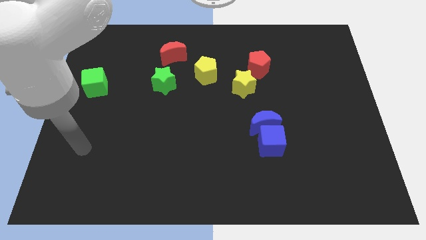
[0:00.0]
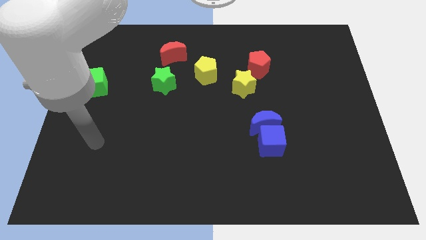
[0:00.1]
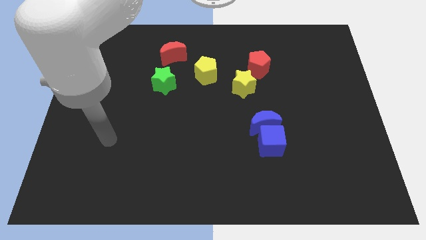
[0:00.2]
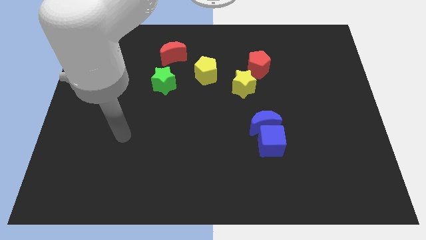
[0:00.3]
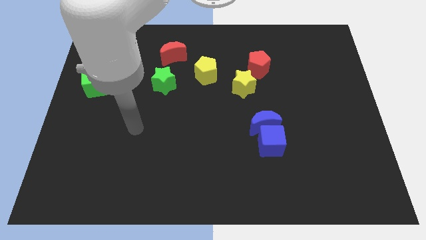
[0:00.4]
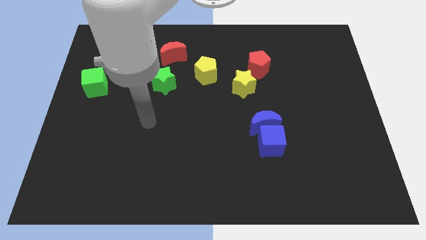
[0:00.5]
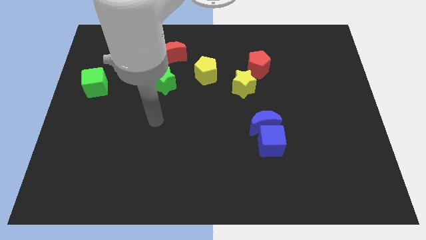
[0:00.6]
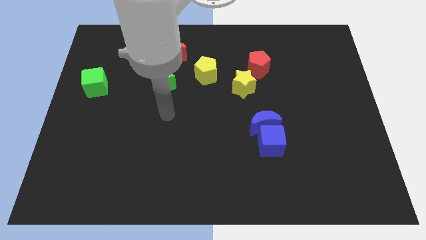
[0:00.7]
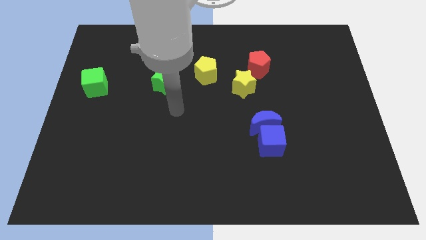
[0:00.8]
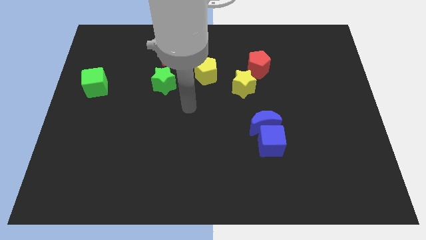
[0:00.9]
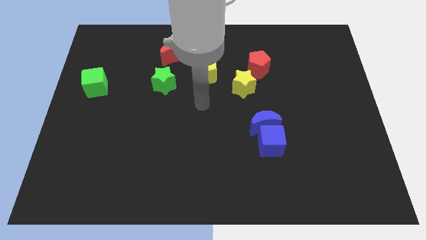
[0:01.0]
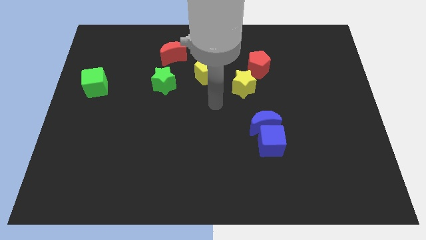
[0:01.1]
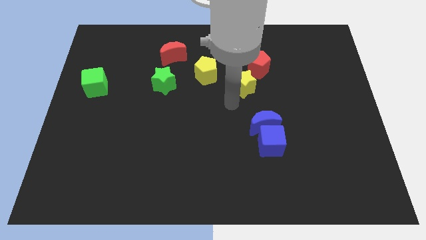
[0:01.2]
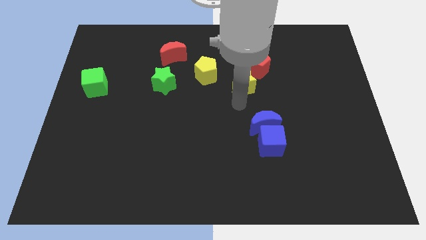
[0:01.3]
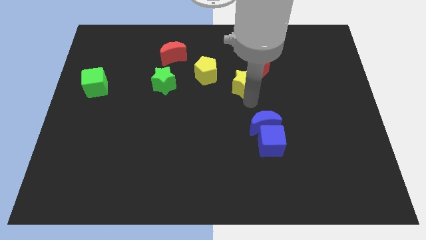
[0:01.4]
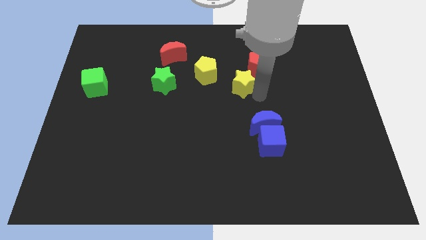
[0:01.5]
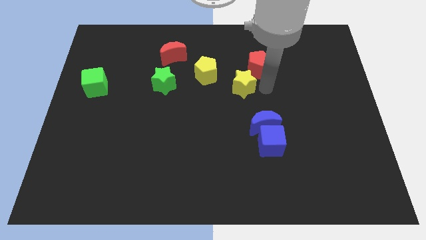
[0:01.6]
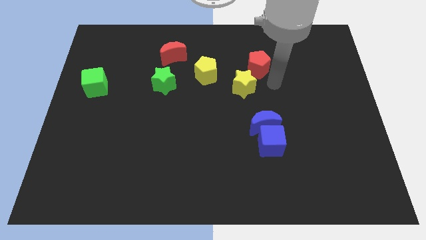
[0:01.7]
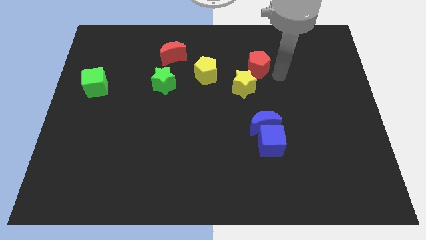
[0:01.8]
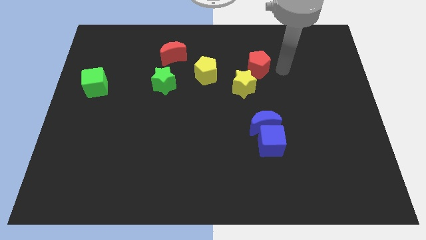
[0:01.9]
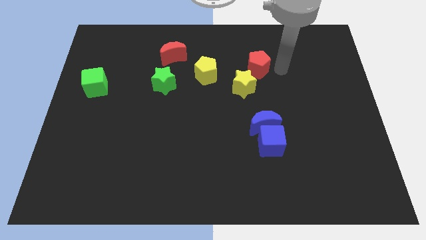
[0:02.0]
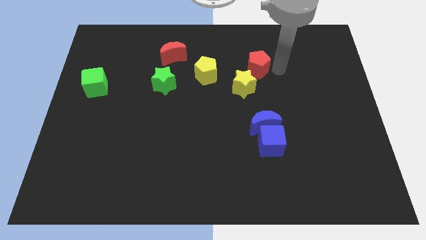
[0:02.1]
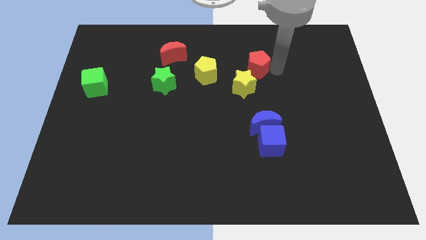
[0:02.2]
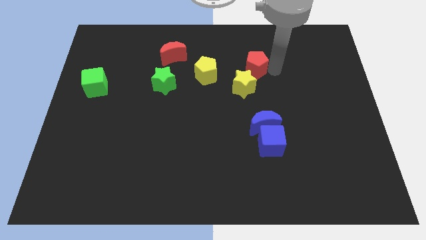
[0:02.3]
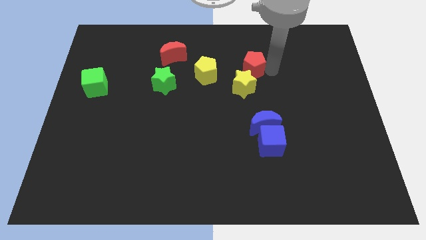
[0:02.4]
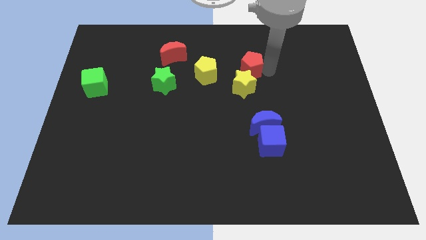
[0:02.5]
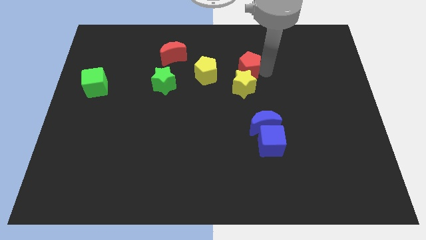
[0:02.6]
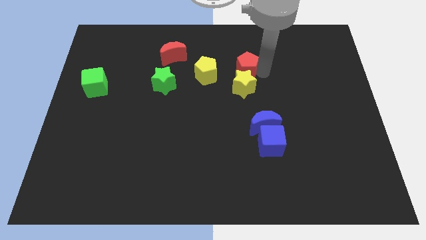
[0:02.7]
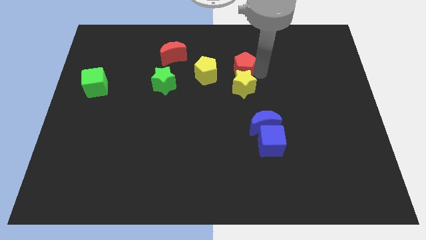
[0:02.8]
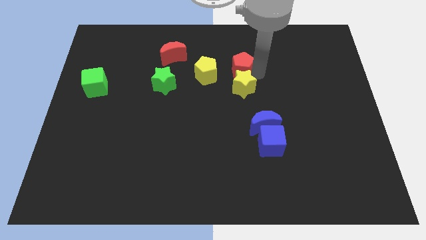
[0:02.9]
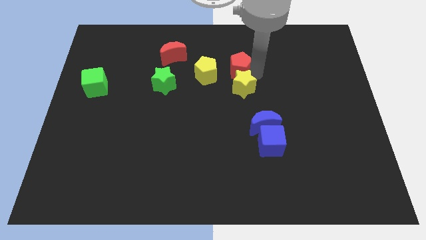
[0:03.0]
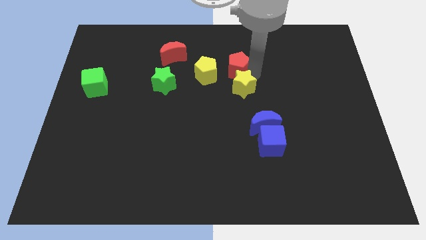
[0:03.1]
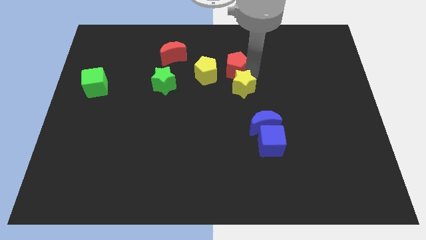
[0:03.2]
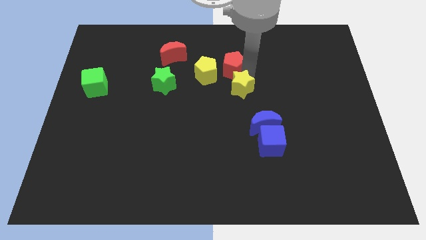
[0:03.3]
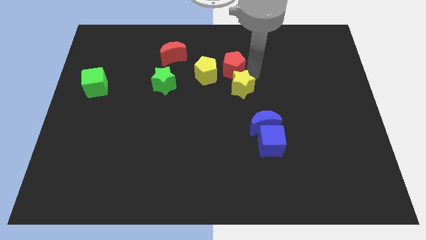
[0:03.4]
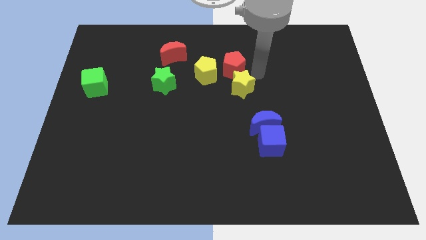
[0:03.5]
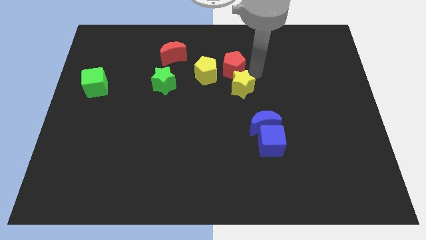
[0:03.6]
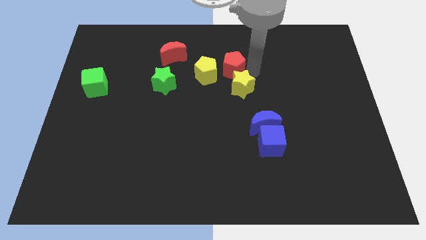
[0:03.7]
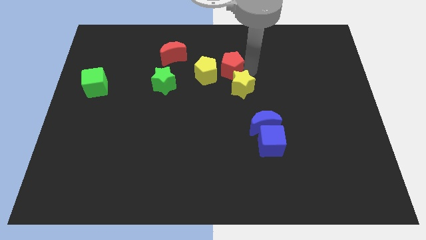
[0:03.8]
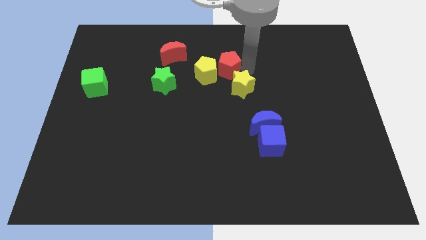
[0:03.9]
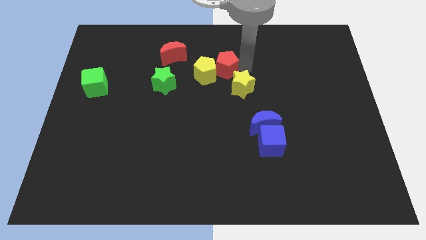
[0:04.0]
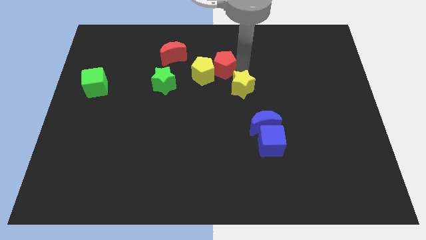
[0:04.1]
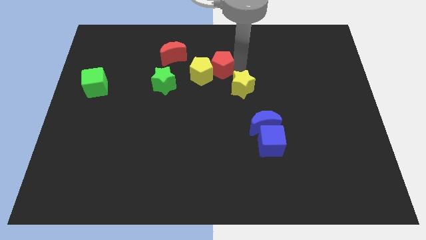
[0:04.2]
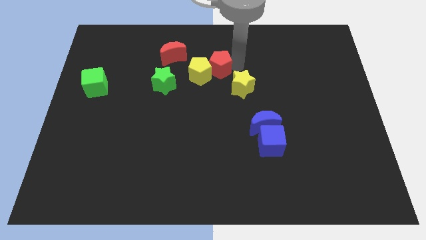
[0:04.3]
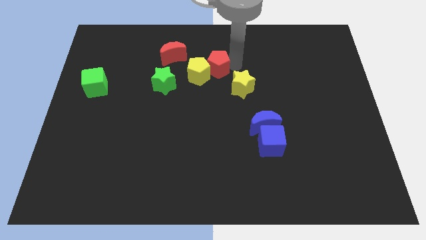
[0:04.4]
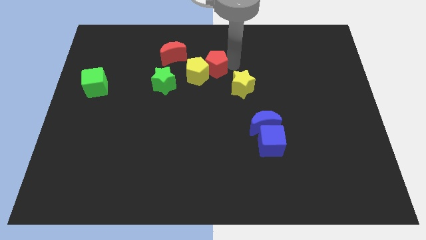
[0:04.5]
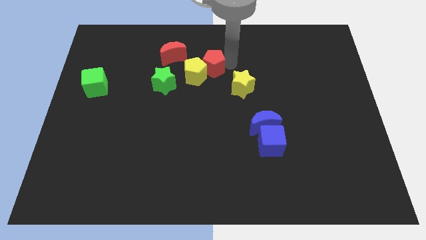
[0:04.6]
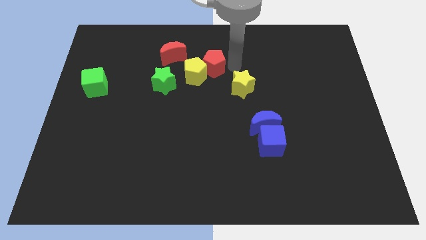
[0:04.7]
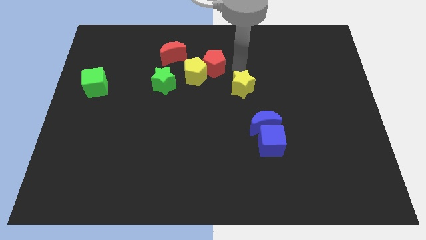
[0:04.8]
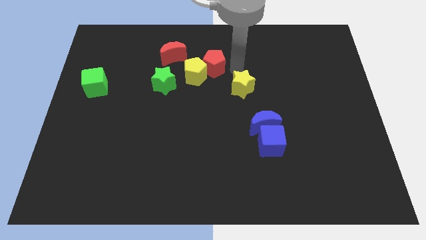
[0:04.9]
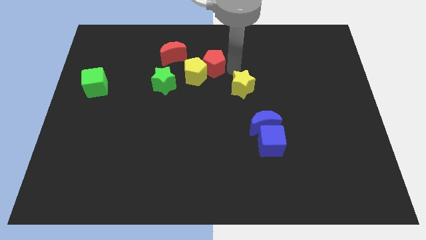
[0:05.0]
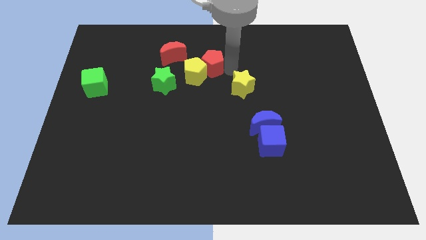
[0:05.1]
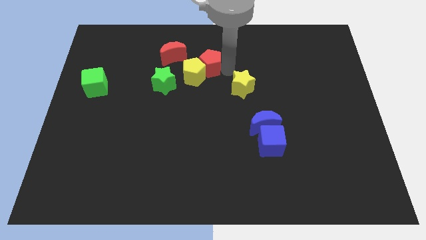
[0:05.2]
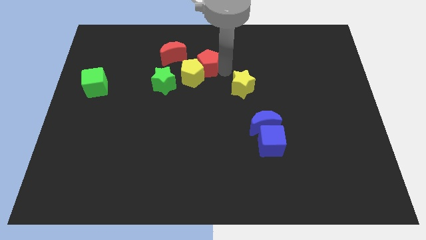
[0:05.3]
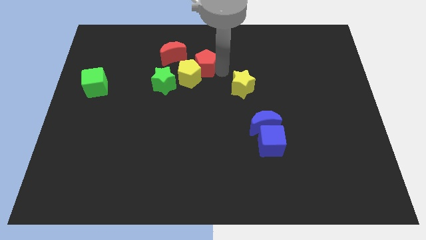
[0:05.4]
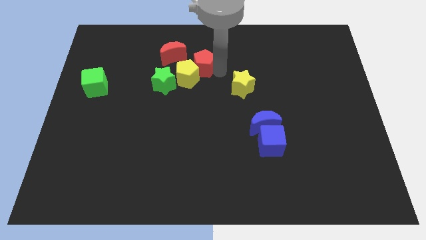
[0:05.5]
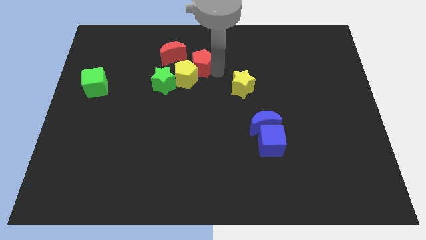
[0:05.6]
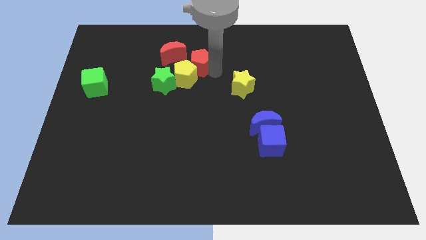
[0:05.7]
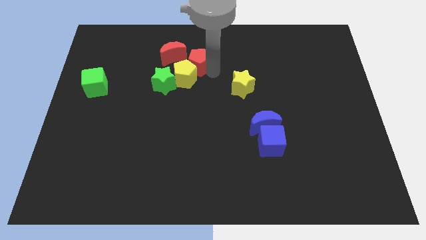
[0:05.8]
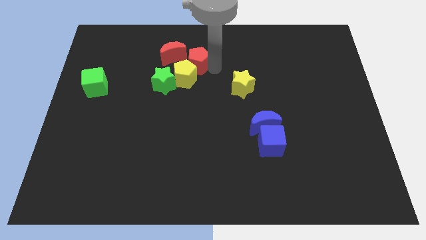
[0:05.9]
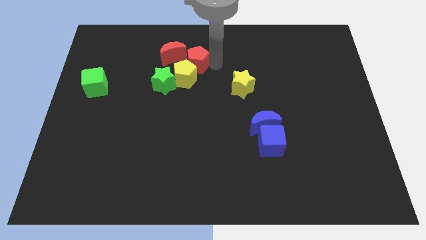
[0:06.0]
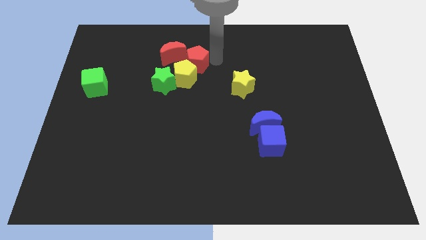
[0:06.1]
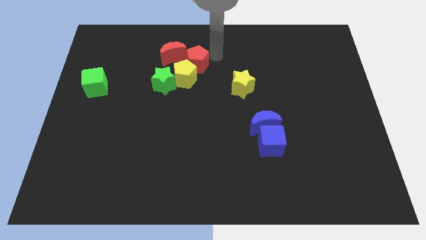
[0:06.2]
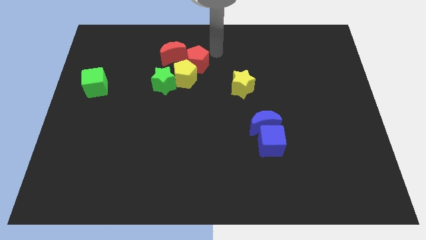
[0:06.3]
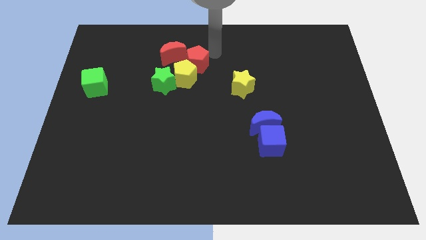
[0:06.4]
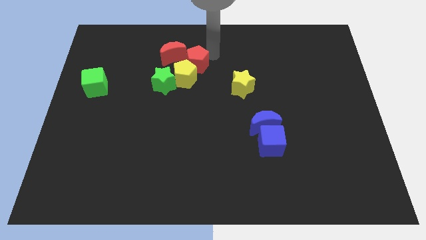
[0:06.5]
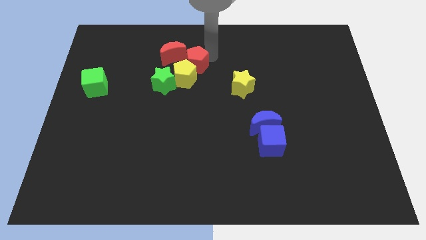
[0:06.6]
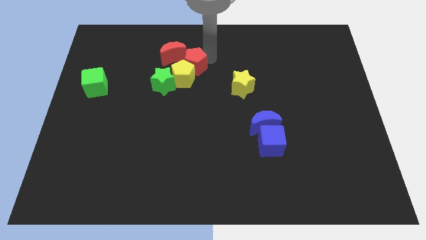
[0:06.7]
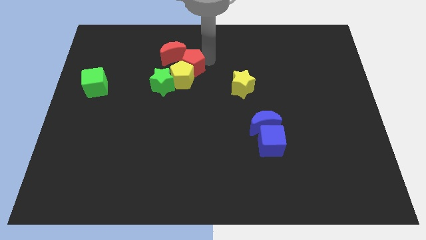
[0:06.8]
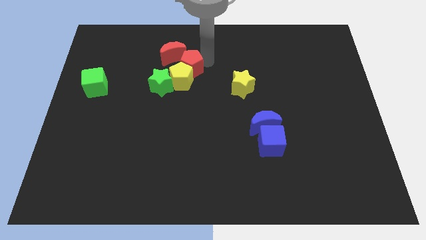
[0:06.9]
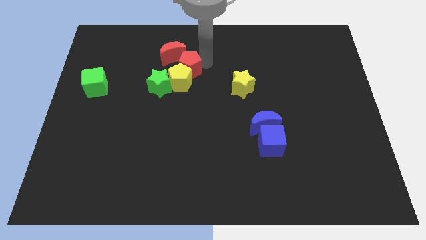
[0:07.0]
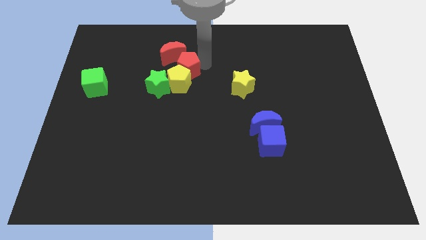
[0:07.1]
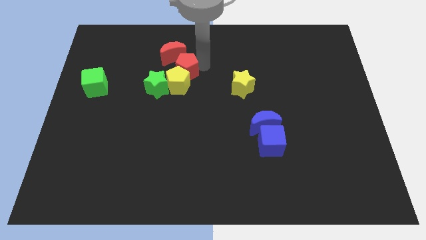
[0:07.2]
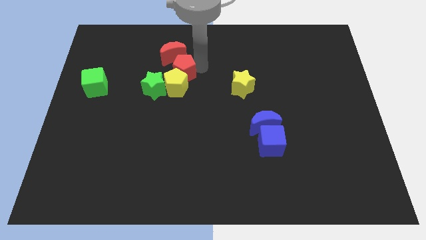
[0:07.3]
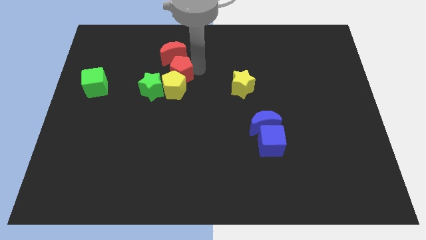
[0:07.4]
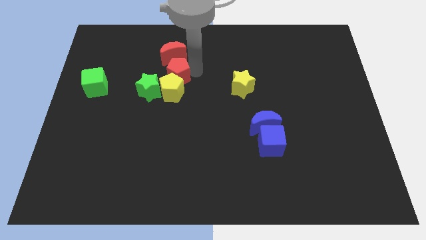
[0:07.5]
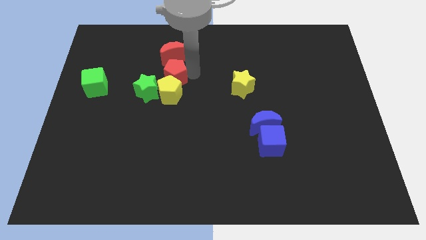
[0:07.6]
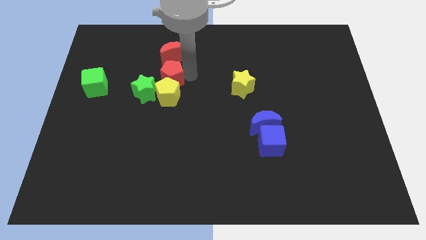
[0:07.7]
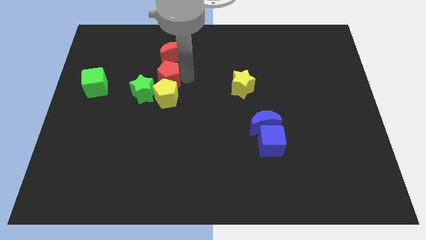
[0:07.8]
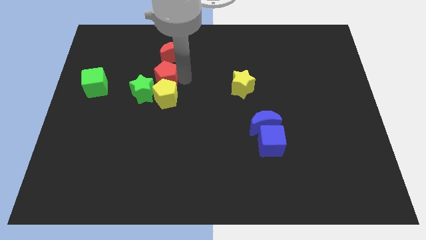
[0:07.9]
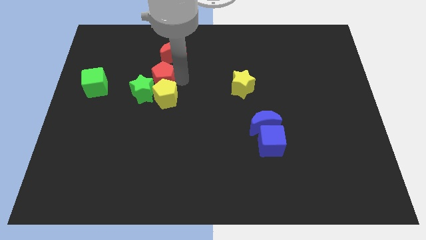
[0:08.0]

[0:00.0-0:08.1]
slide the red pentagon towards the green star
